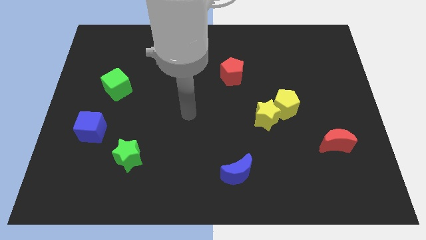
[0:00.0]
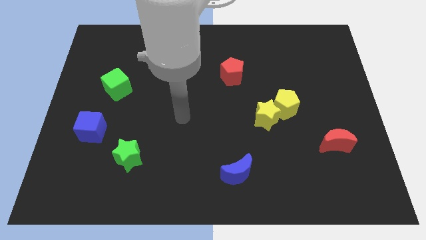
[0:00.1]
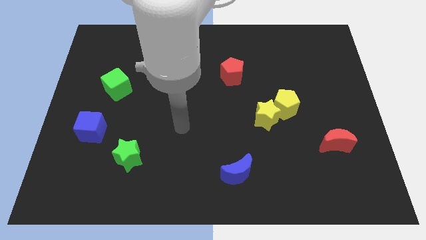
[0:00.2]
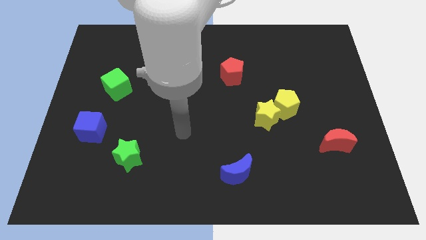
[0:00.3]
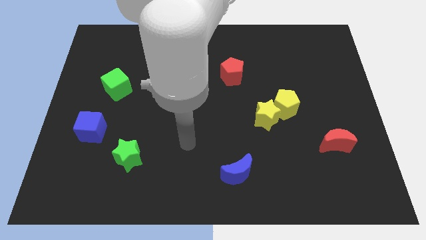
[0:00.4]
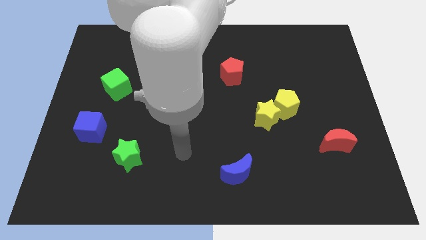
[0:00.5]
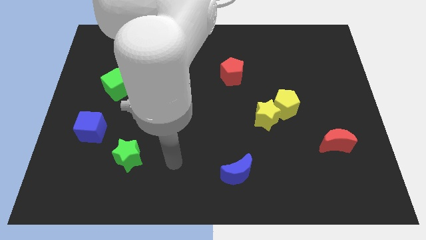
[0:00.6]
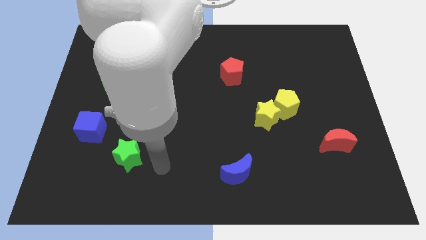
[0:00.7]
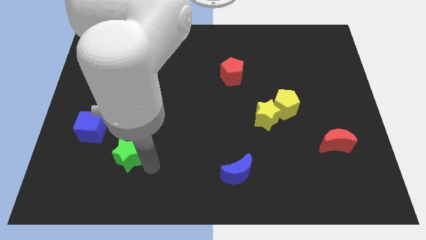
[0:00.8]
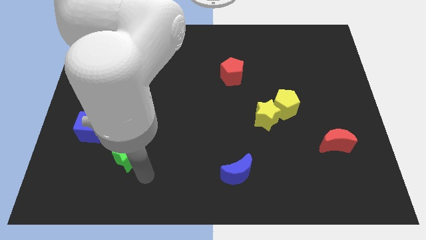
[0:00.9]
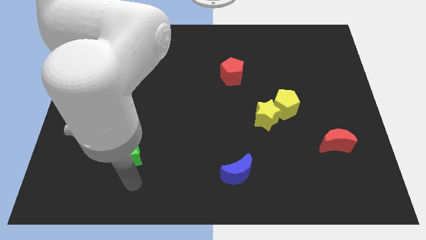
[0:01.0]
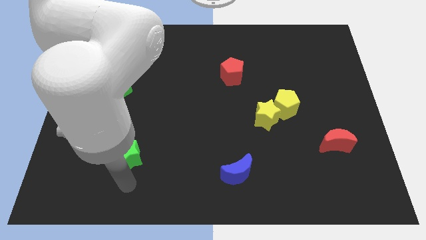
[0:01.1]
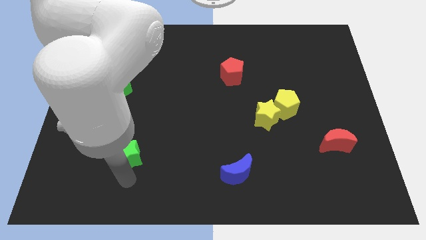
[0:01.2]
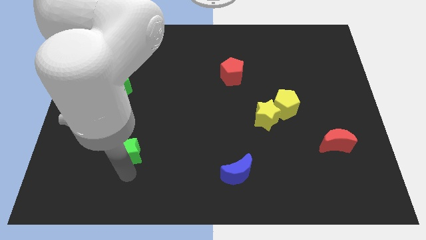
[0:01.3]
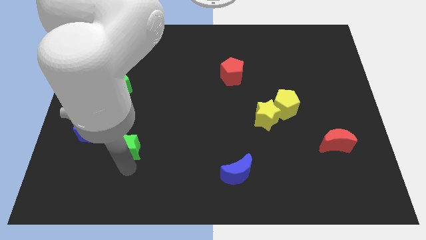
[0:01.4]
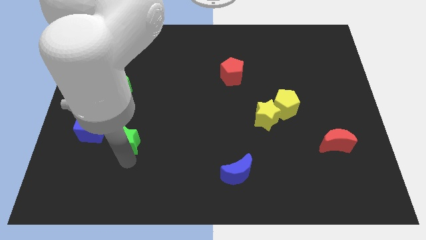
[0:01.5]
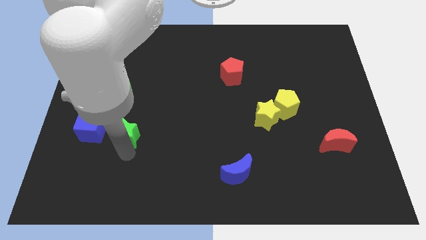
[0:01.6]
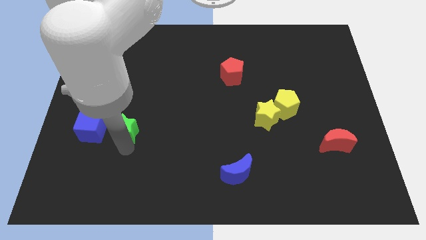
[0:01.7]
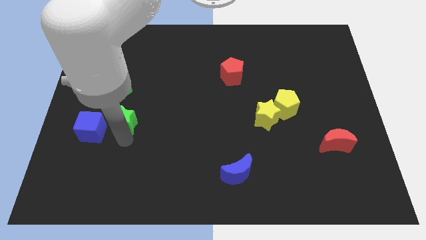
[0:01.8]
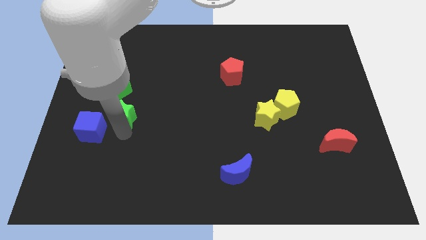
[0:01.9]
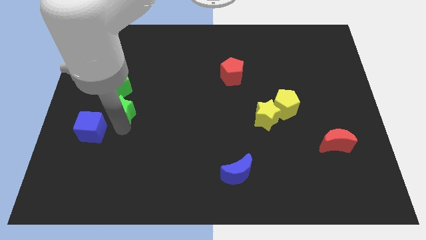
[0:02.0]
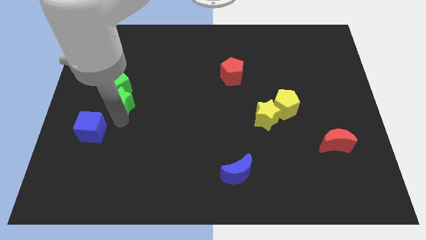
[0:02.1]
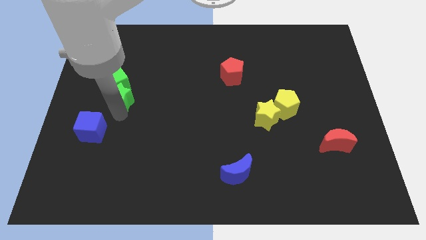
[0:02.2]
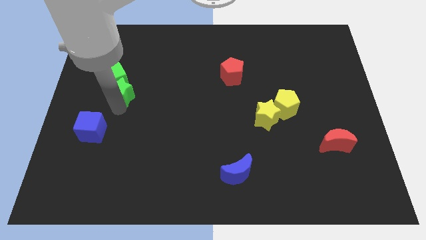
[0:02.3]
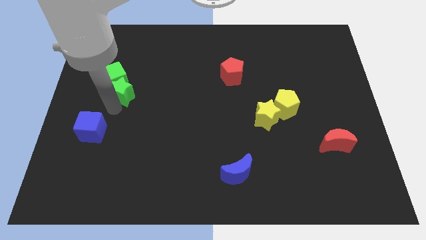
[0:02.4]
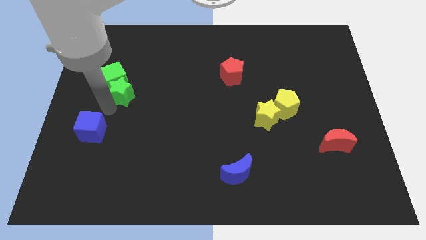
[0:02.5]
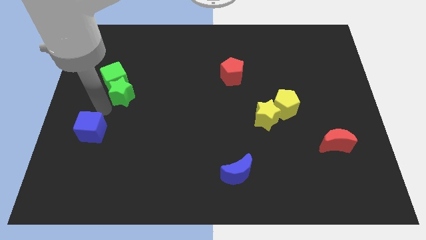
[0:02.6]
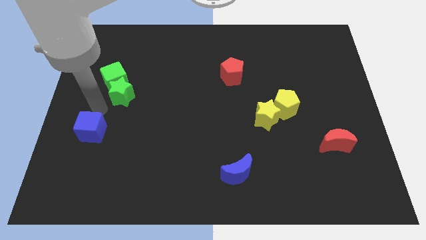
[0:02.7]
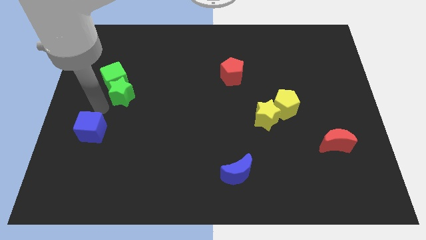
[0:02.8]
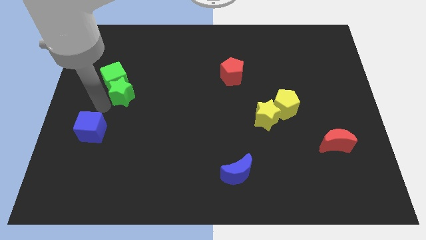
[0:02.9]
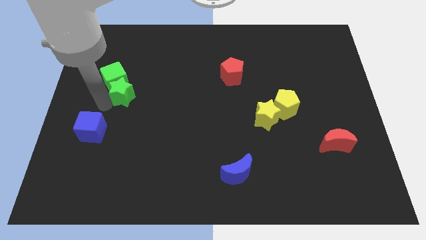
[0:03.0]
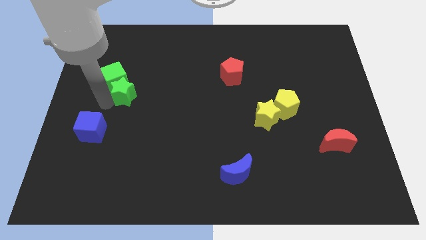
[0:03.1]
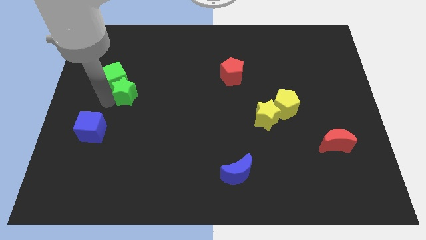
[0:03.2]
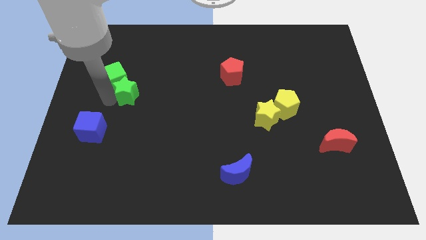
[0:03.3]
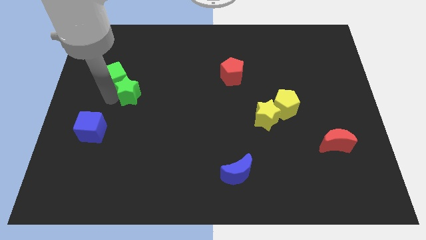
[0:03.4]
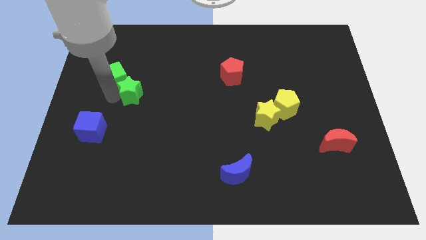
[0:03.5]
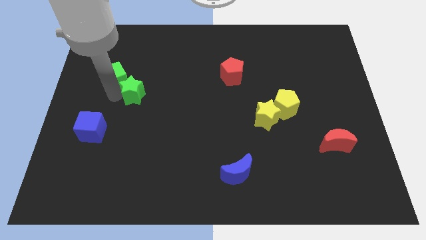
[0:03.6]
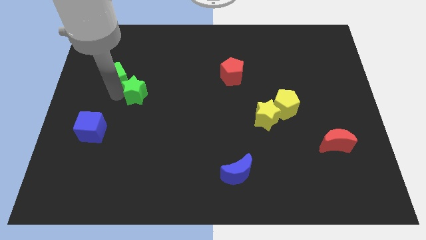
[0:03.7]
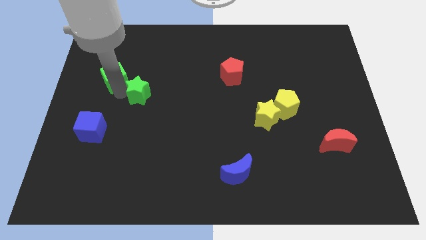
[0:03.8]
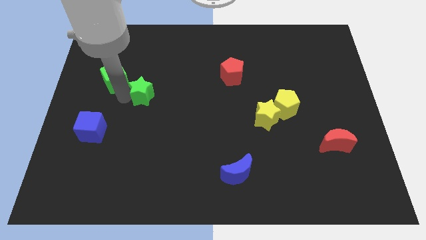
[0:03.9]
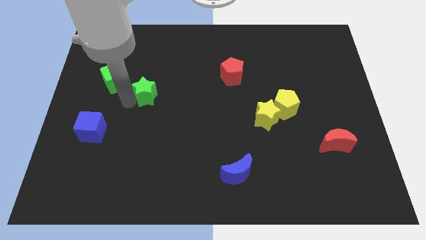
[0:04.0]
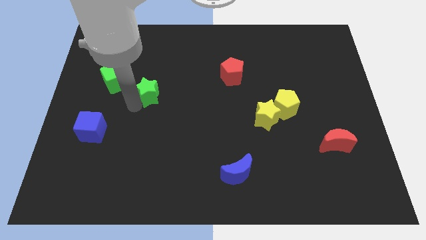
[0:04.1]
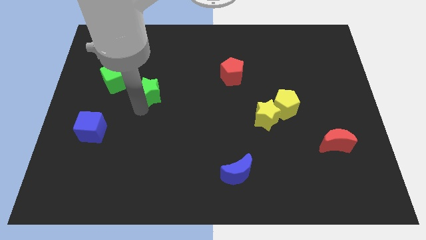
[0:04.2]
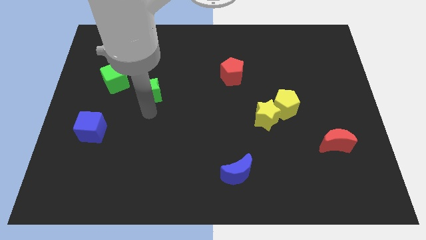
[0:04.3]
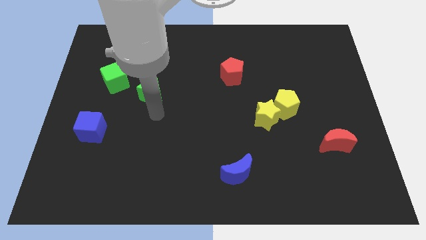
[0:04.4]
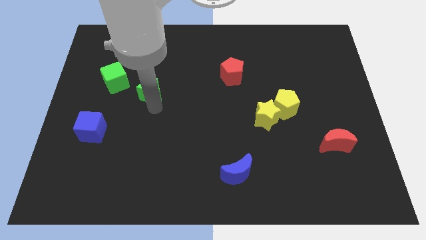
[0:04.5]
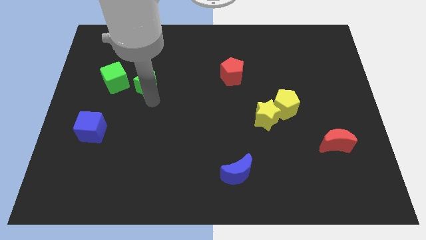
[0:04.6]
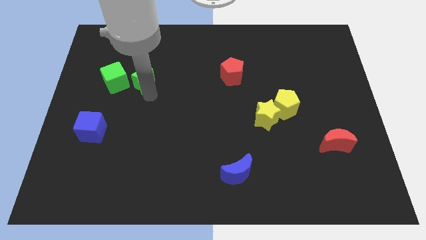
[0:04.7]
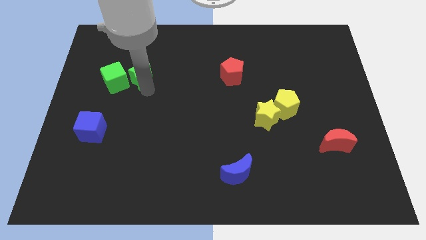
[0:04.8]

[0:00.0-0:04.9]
slide the green star diagonally up and to the right of the green cube

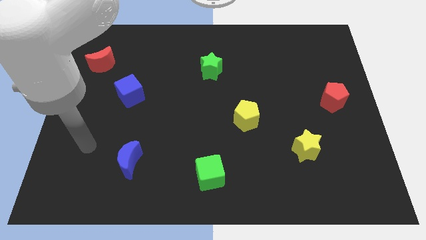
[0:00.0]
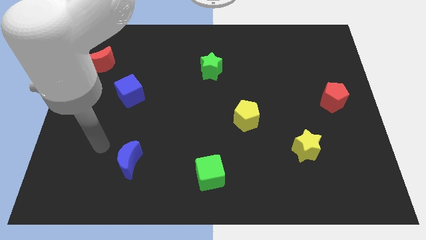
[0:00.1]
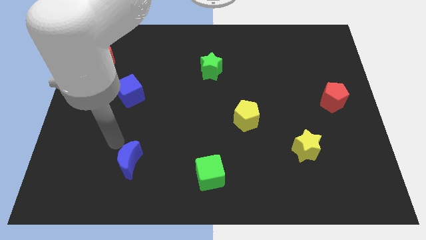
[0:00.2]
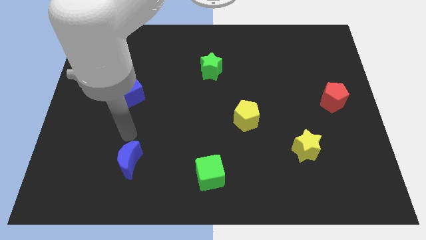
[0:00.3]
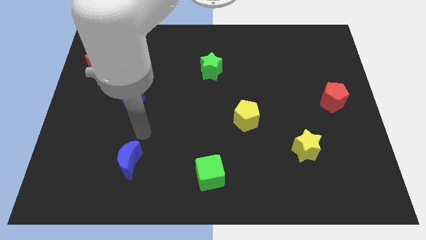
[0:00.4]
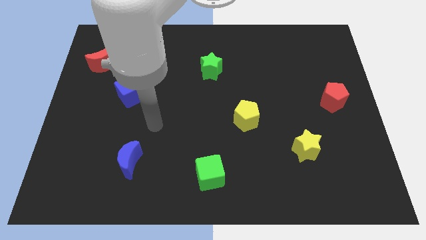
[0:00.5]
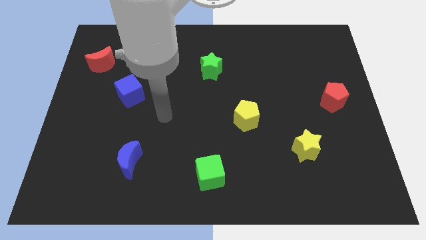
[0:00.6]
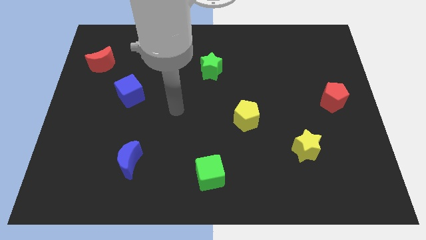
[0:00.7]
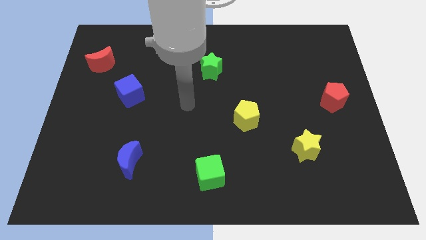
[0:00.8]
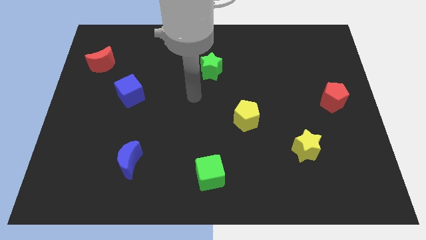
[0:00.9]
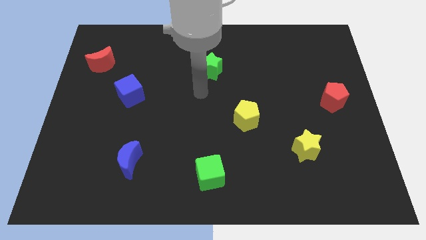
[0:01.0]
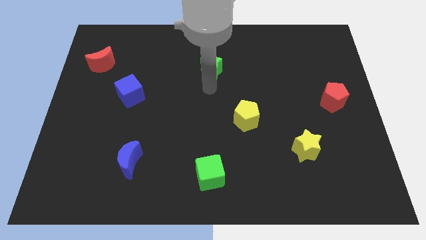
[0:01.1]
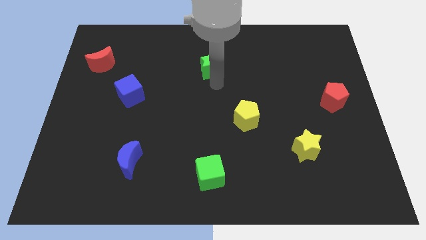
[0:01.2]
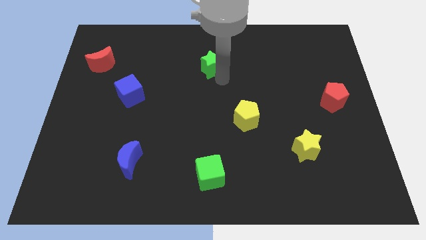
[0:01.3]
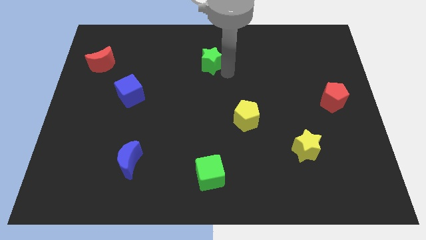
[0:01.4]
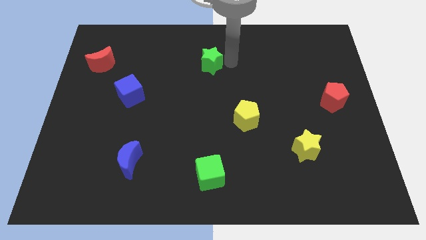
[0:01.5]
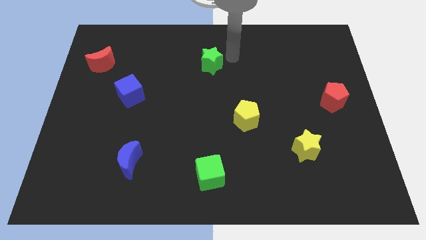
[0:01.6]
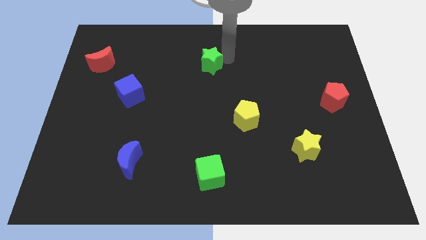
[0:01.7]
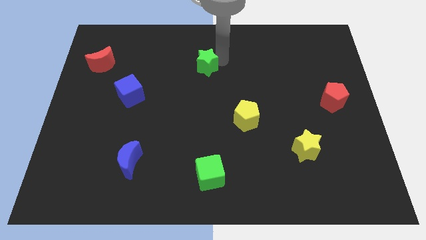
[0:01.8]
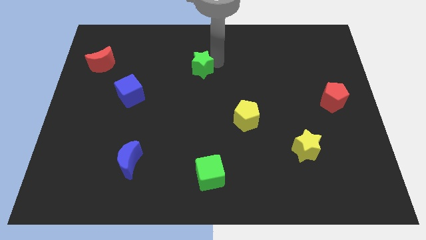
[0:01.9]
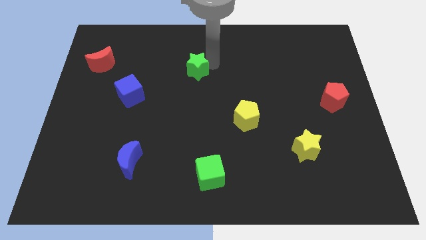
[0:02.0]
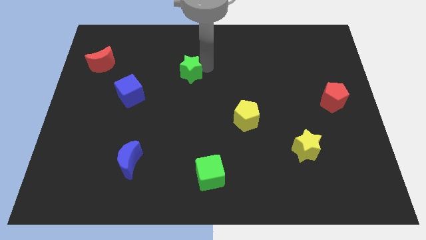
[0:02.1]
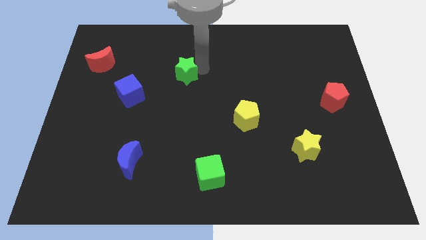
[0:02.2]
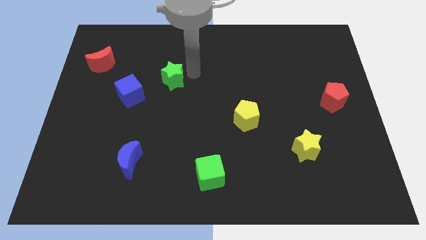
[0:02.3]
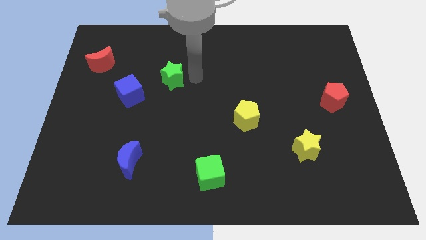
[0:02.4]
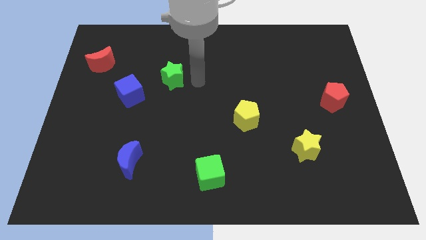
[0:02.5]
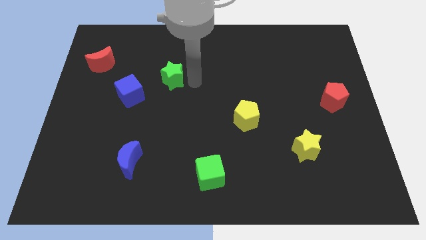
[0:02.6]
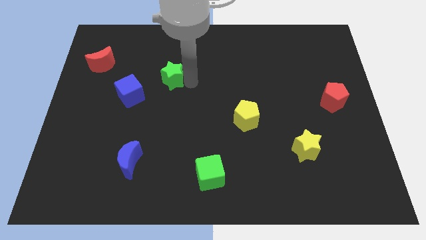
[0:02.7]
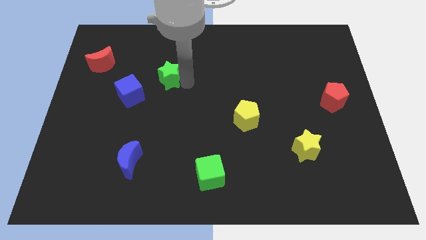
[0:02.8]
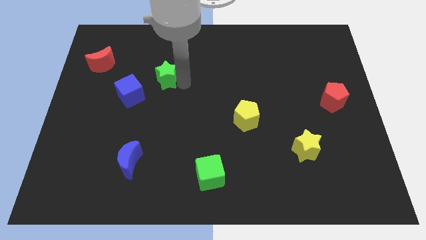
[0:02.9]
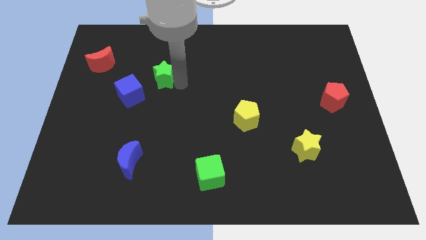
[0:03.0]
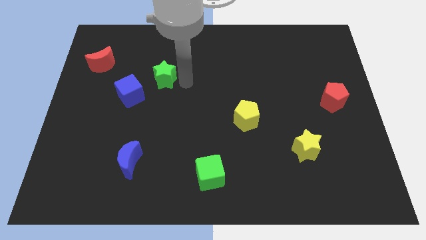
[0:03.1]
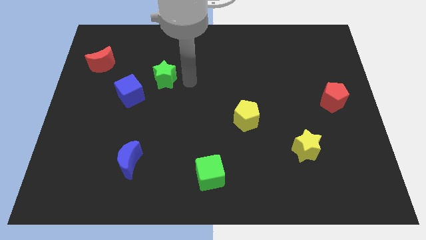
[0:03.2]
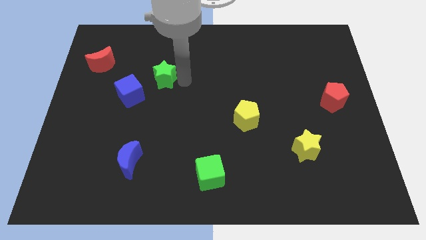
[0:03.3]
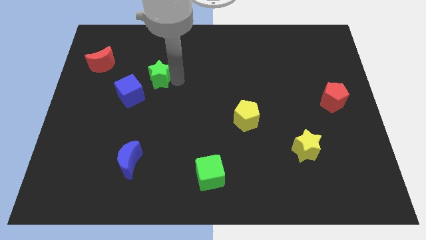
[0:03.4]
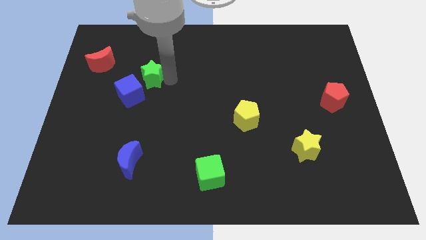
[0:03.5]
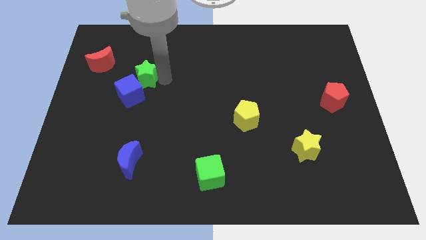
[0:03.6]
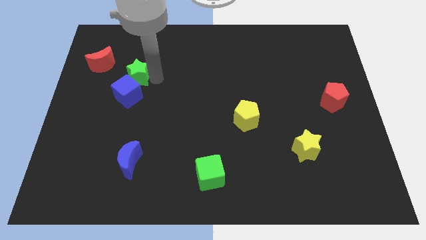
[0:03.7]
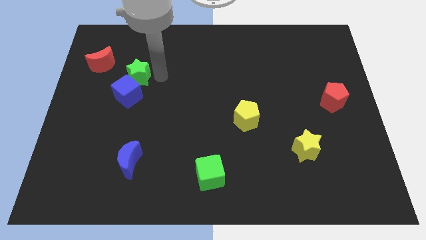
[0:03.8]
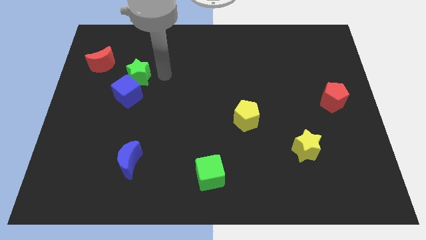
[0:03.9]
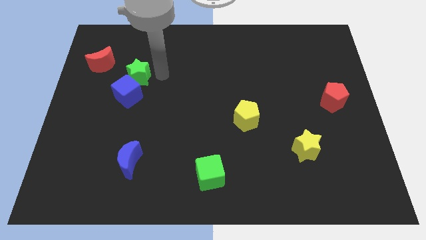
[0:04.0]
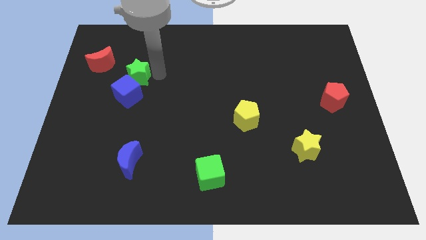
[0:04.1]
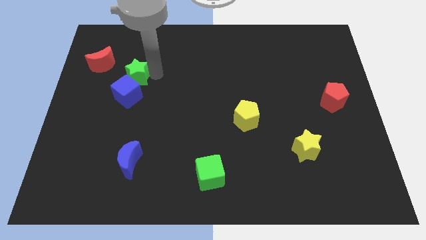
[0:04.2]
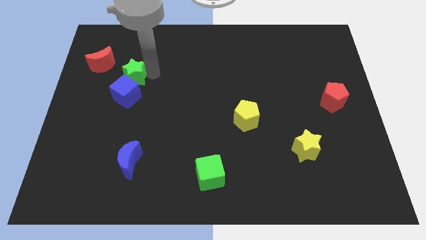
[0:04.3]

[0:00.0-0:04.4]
slide the green star to the top left of the blue cube
